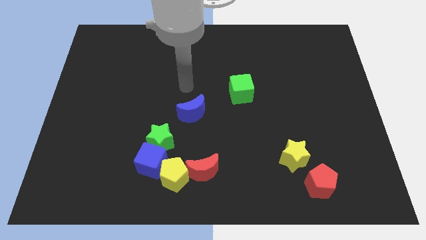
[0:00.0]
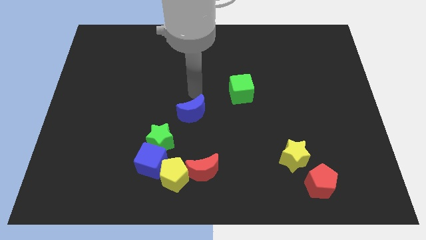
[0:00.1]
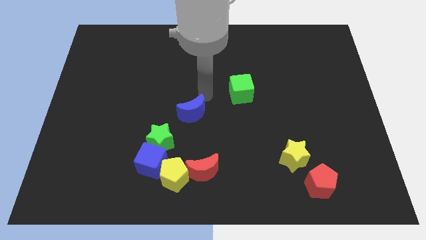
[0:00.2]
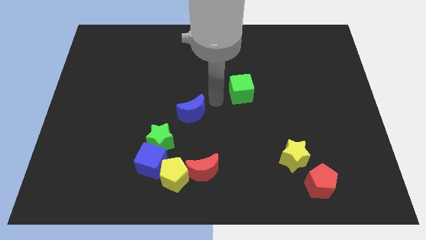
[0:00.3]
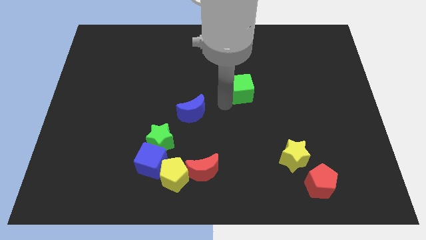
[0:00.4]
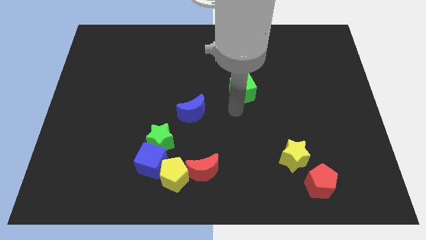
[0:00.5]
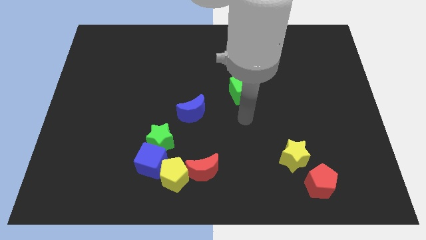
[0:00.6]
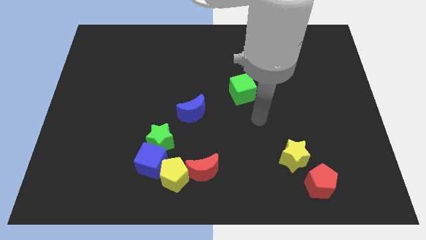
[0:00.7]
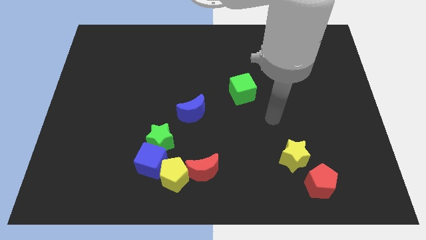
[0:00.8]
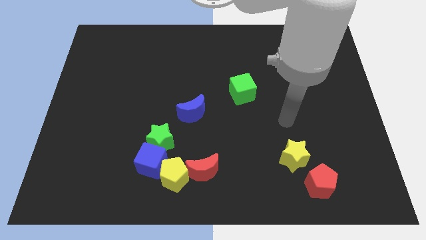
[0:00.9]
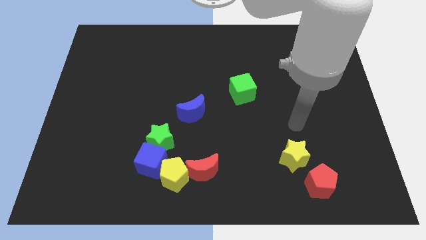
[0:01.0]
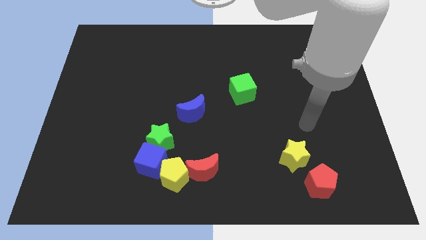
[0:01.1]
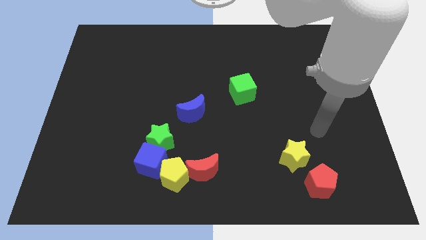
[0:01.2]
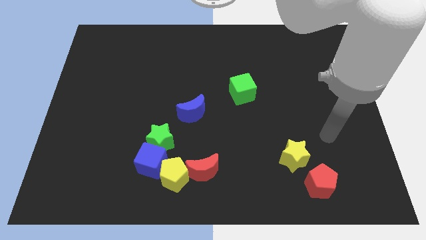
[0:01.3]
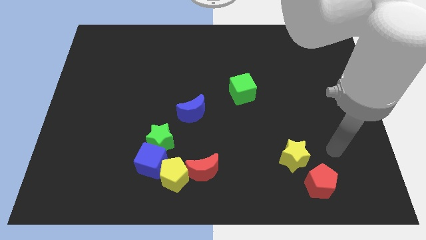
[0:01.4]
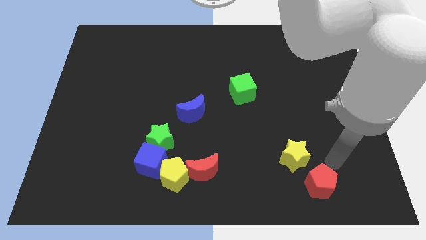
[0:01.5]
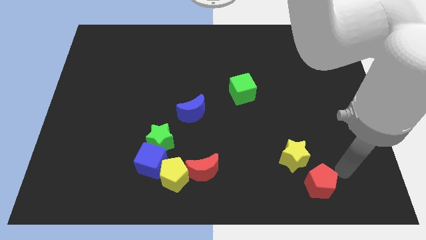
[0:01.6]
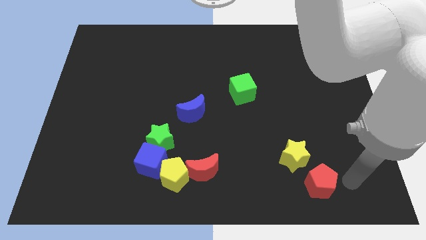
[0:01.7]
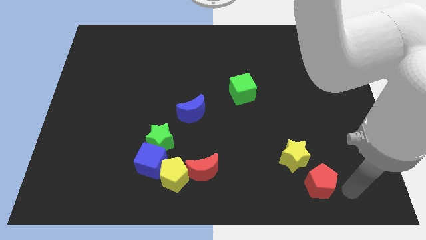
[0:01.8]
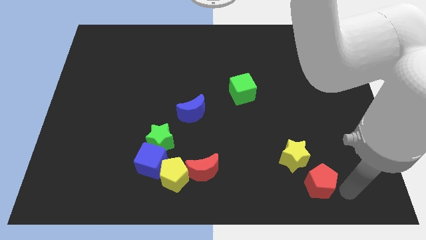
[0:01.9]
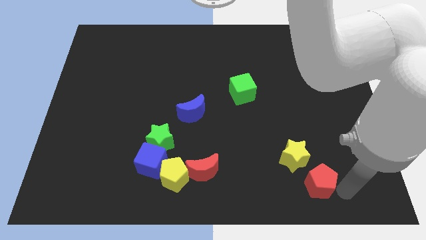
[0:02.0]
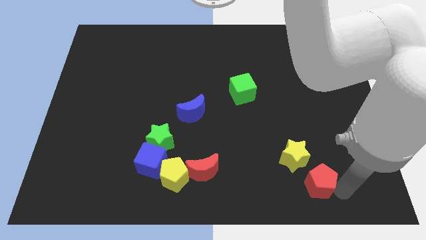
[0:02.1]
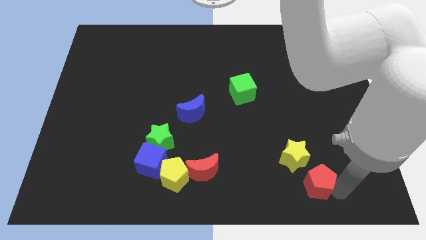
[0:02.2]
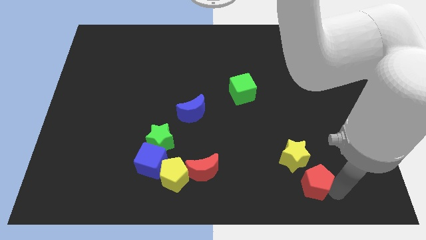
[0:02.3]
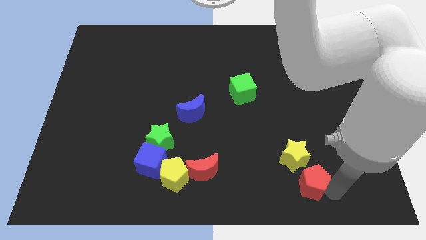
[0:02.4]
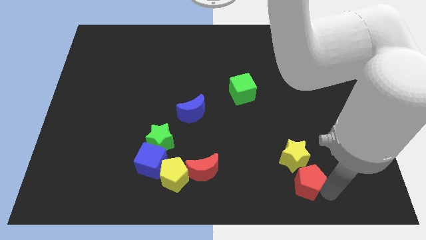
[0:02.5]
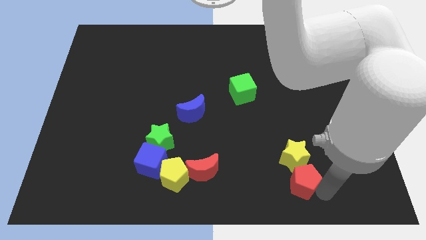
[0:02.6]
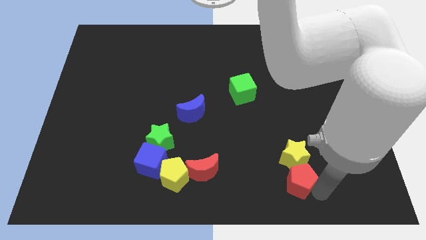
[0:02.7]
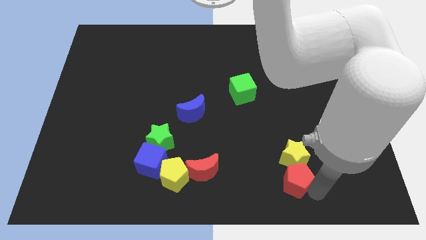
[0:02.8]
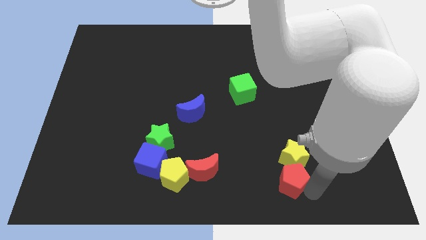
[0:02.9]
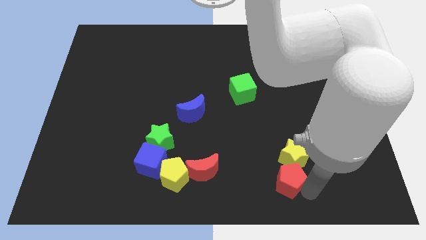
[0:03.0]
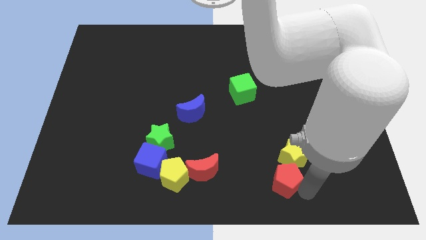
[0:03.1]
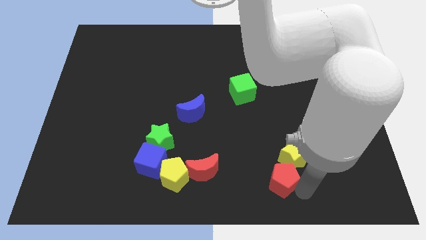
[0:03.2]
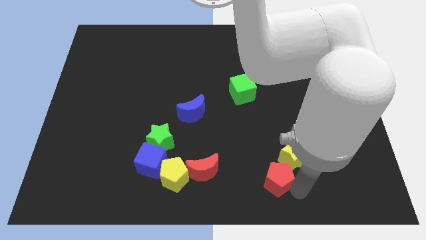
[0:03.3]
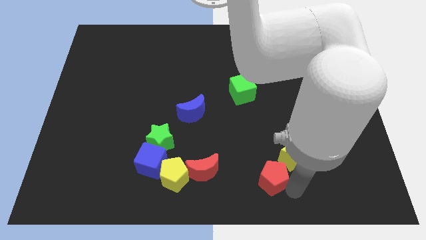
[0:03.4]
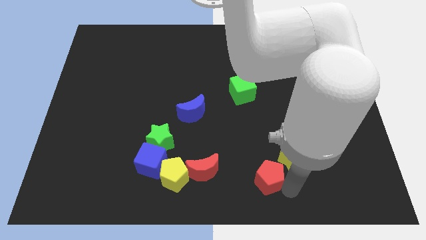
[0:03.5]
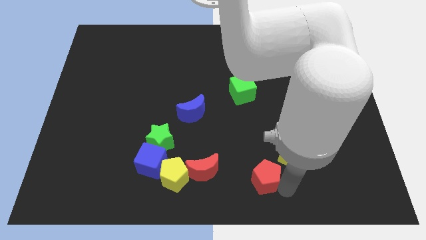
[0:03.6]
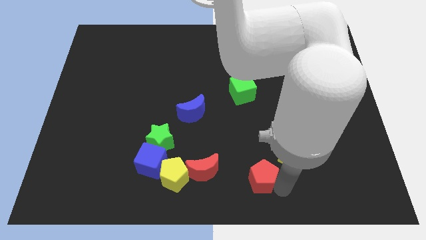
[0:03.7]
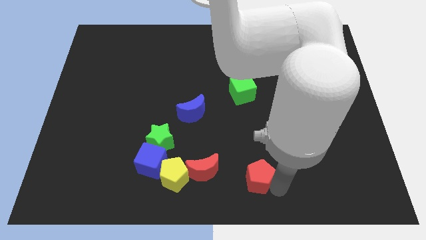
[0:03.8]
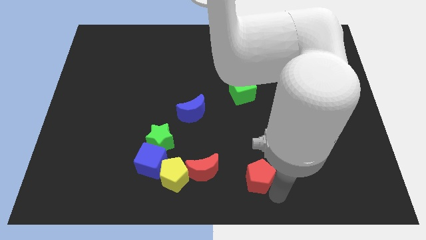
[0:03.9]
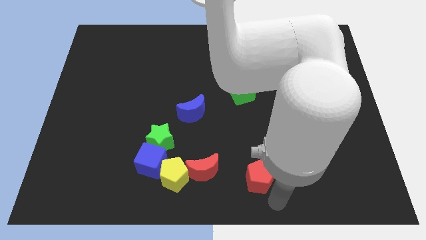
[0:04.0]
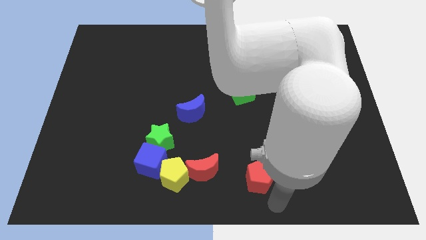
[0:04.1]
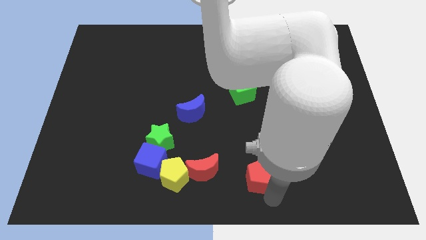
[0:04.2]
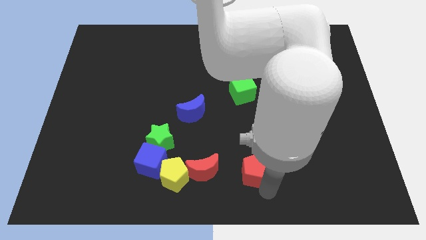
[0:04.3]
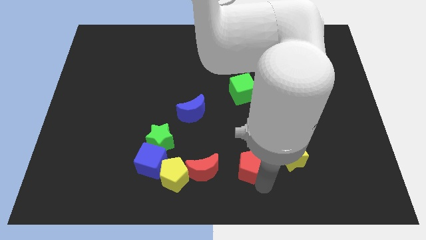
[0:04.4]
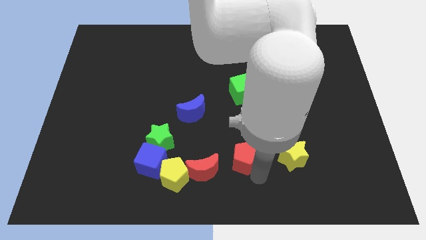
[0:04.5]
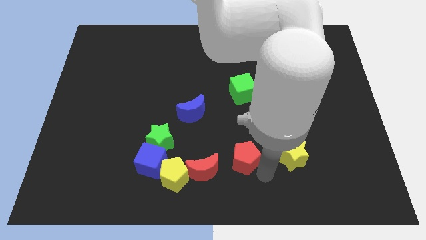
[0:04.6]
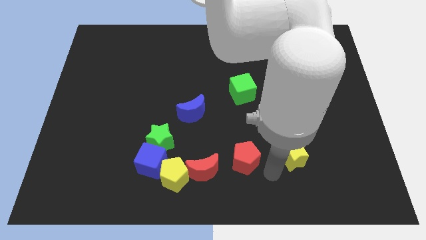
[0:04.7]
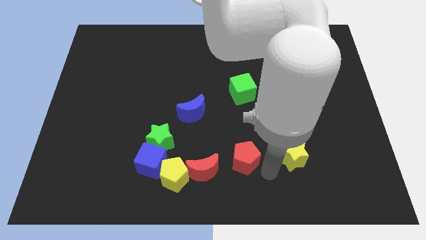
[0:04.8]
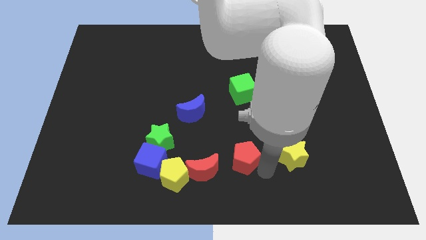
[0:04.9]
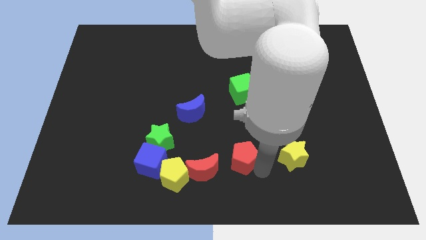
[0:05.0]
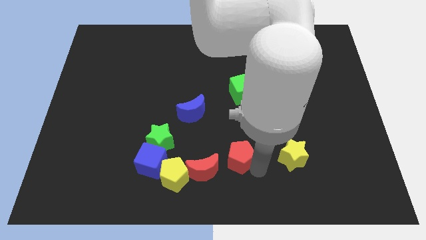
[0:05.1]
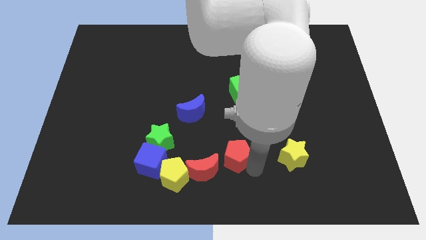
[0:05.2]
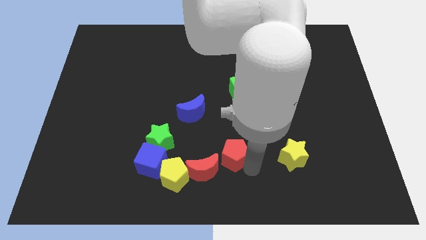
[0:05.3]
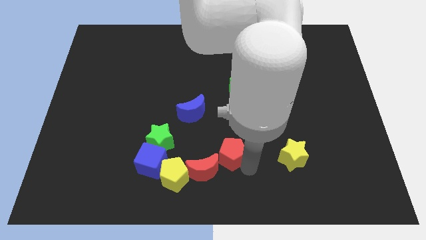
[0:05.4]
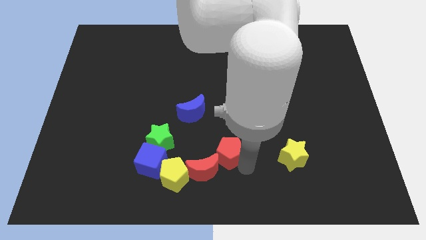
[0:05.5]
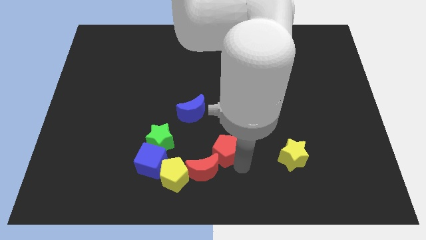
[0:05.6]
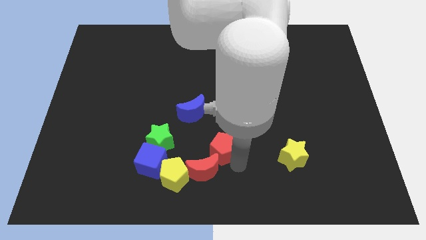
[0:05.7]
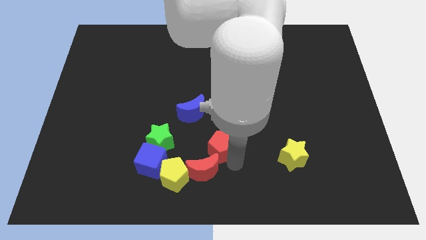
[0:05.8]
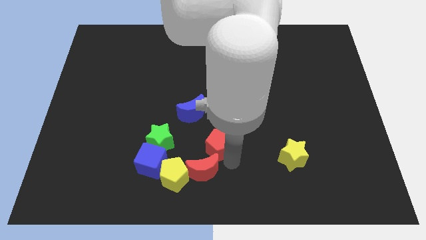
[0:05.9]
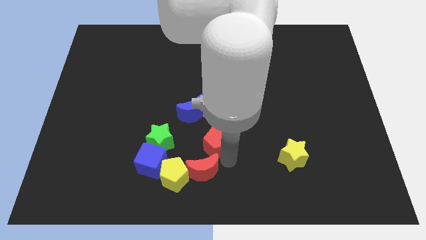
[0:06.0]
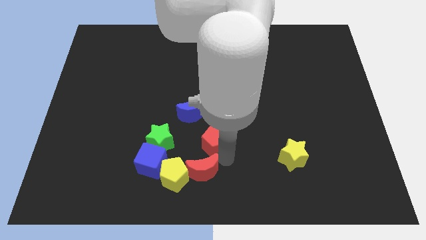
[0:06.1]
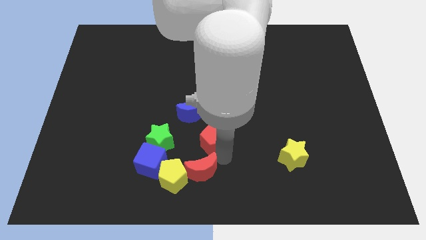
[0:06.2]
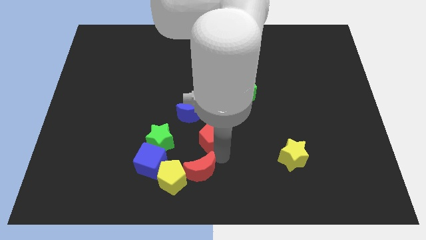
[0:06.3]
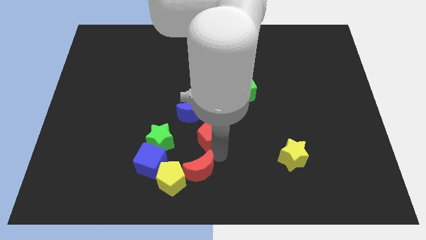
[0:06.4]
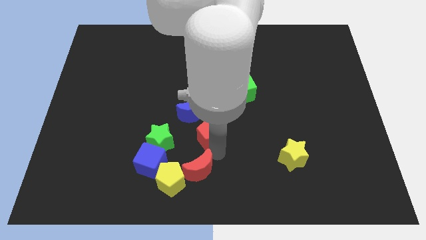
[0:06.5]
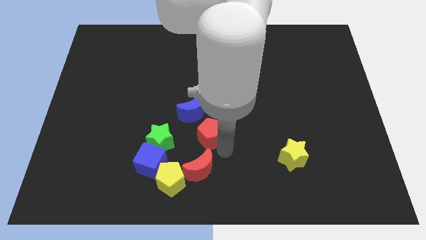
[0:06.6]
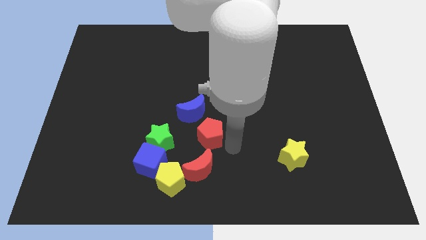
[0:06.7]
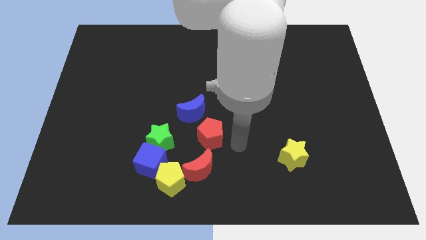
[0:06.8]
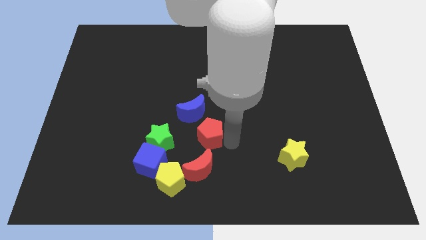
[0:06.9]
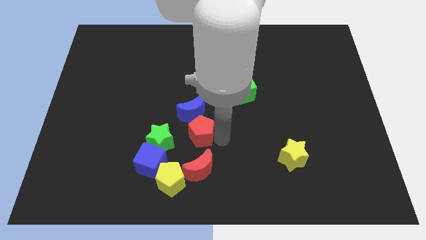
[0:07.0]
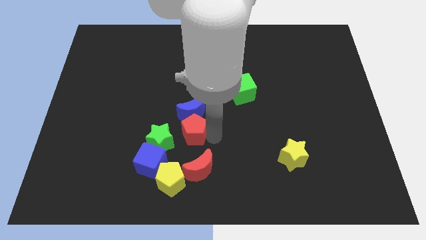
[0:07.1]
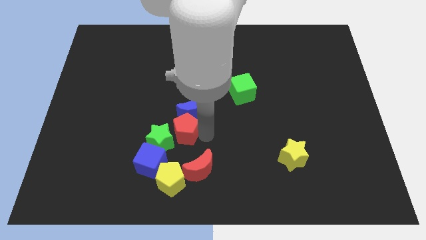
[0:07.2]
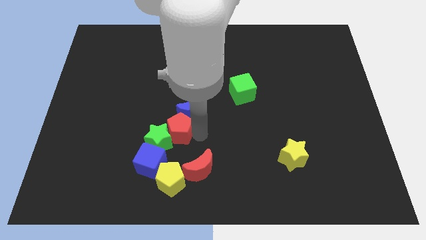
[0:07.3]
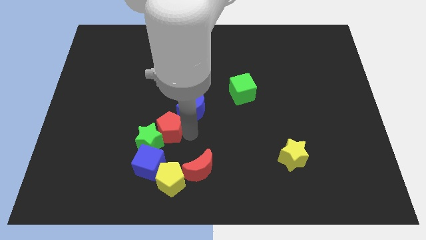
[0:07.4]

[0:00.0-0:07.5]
put the red pentagon to the left side of the blue moon
